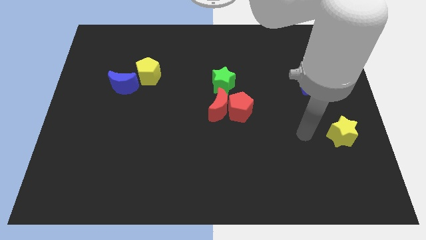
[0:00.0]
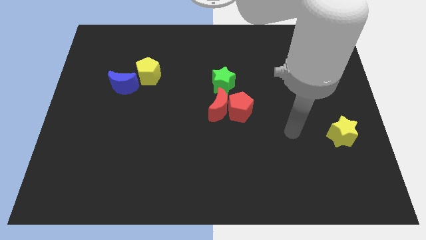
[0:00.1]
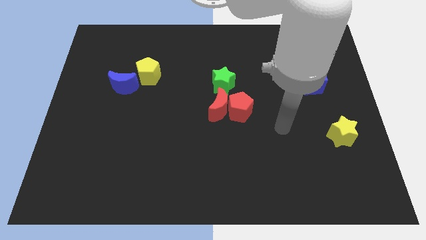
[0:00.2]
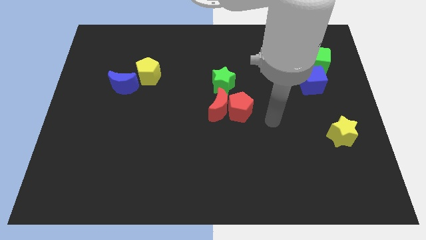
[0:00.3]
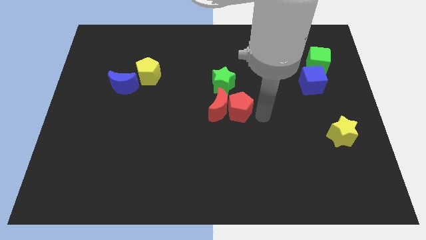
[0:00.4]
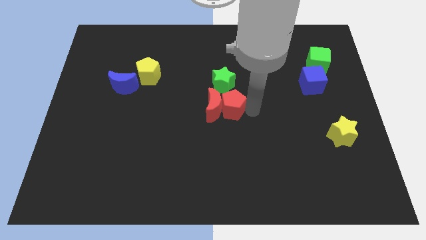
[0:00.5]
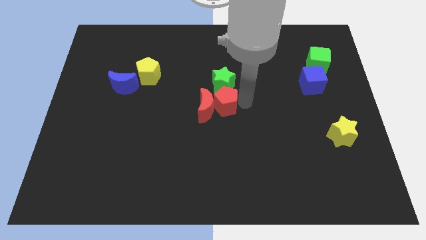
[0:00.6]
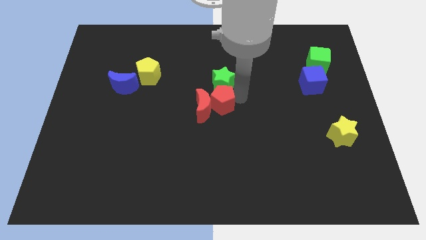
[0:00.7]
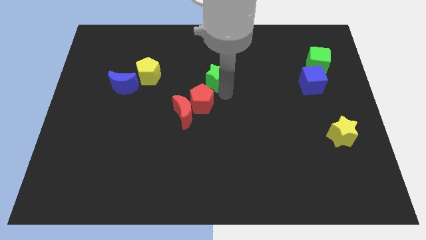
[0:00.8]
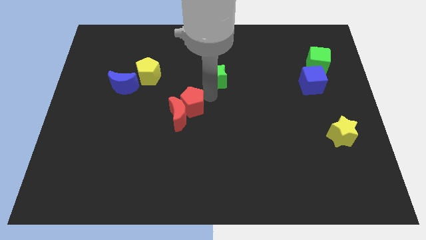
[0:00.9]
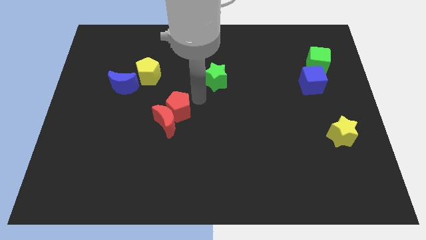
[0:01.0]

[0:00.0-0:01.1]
move the red moon away from the red pentagon and green star

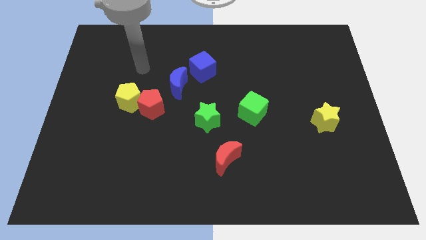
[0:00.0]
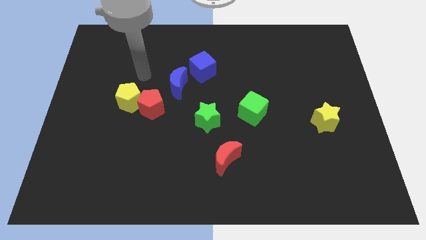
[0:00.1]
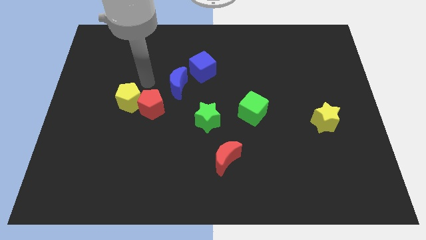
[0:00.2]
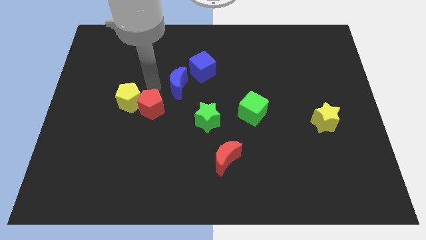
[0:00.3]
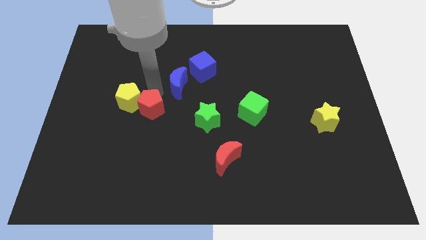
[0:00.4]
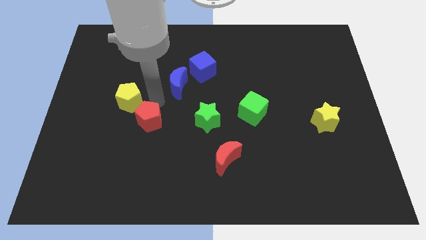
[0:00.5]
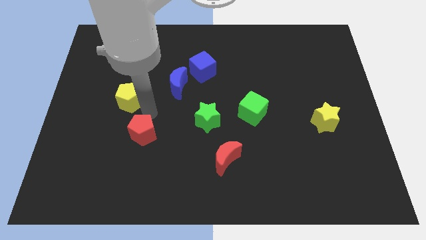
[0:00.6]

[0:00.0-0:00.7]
pull the yellow pentagon apart from the red pentagon

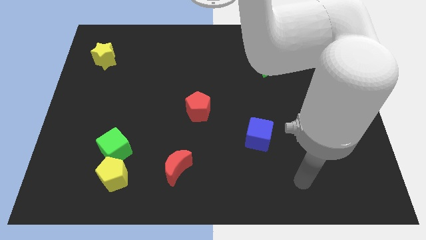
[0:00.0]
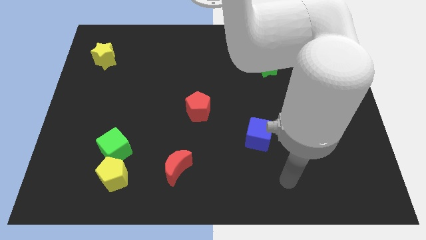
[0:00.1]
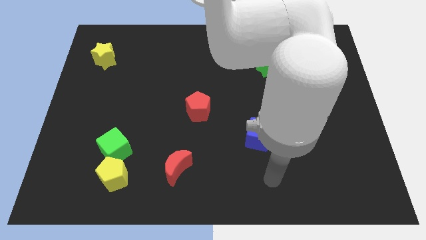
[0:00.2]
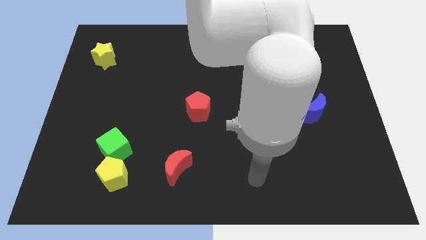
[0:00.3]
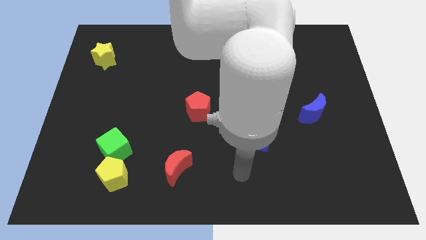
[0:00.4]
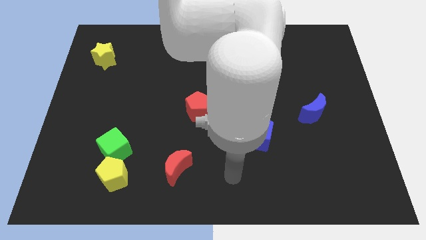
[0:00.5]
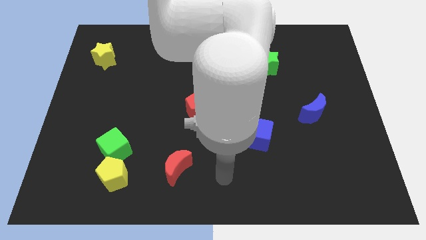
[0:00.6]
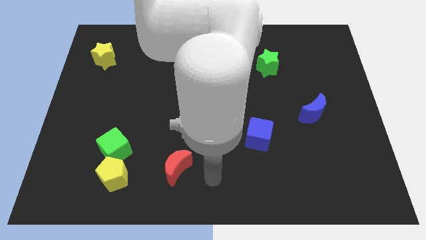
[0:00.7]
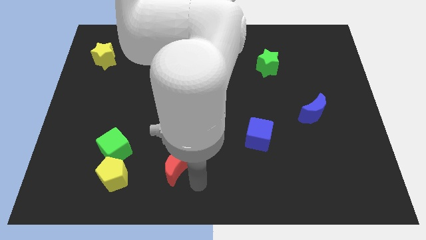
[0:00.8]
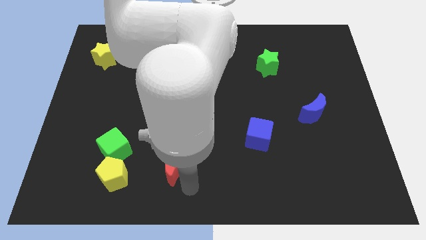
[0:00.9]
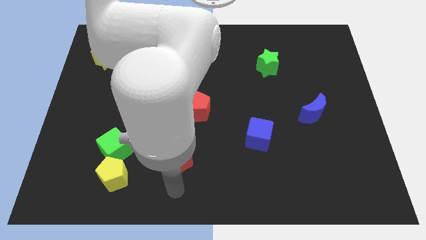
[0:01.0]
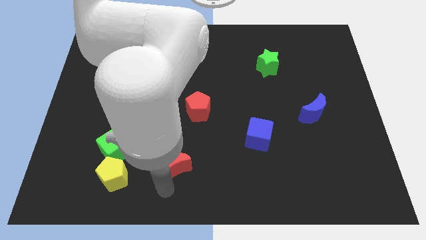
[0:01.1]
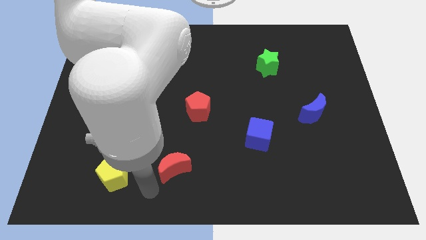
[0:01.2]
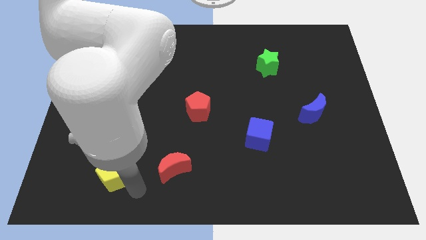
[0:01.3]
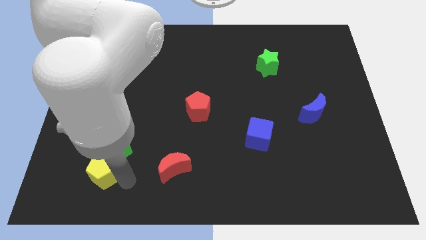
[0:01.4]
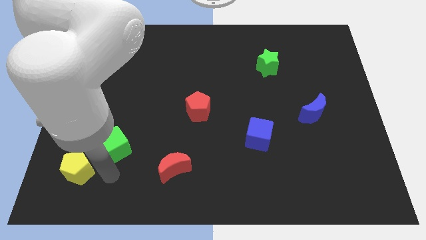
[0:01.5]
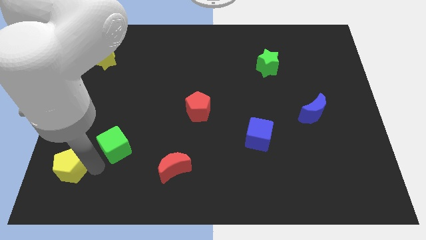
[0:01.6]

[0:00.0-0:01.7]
pull the green cube apart from the yellow pentagon

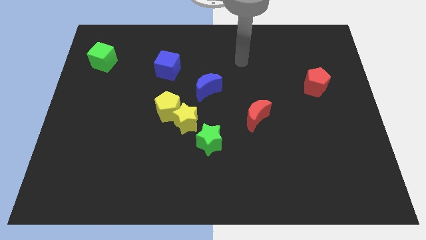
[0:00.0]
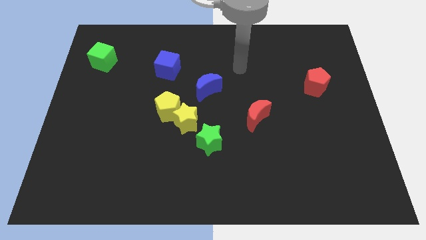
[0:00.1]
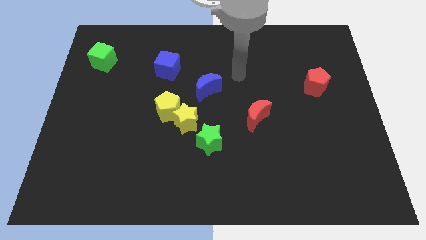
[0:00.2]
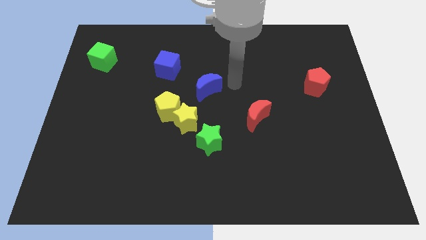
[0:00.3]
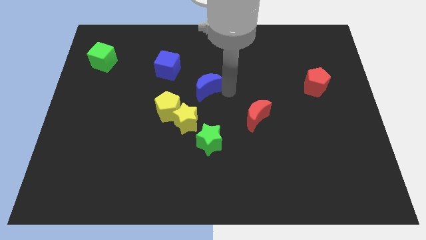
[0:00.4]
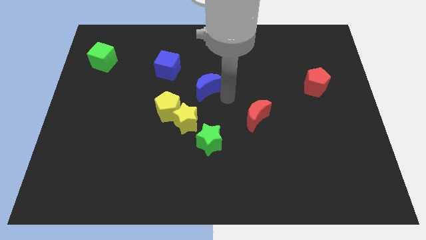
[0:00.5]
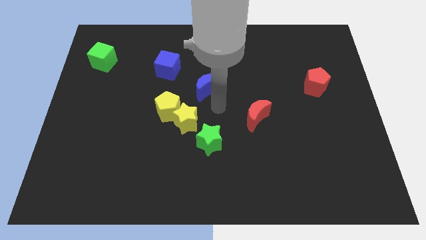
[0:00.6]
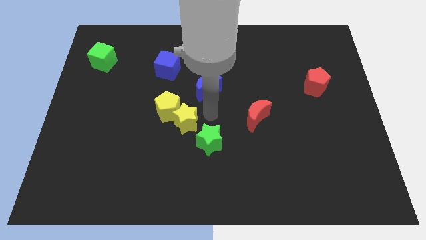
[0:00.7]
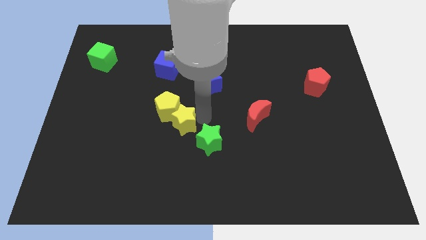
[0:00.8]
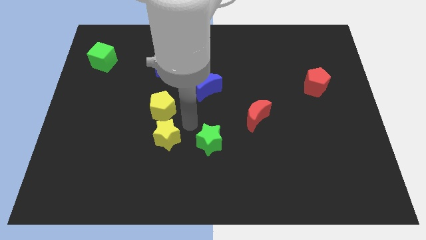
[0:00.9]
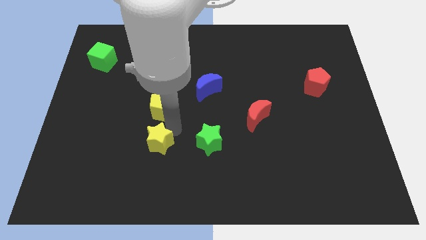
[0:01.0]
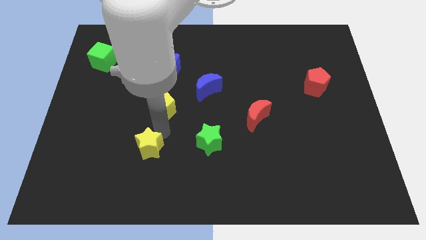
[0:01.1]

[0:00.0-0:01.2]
pull the yellow pentagon apart from the yellow star

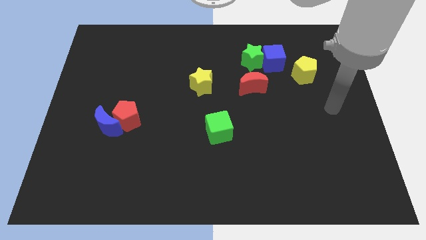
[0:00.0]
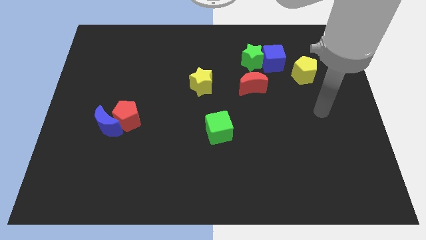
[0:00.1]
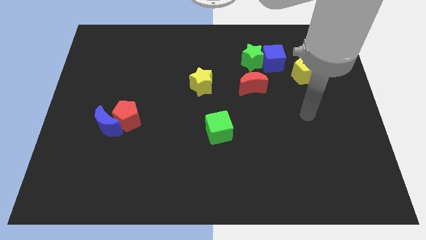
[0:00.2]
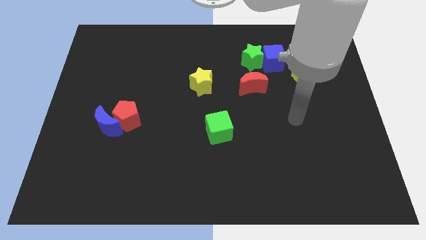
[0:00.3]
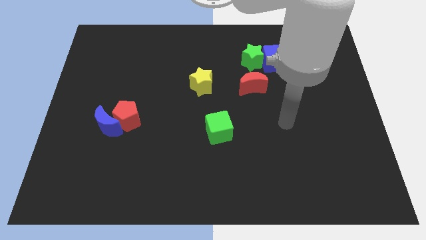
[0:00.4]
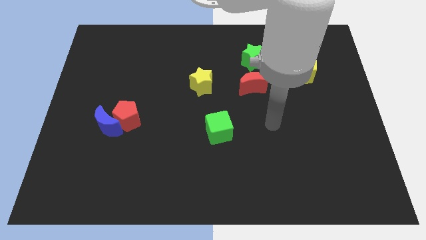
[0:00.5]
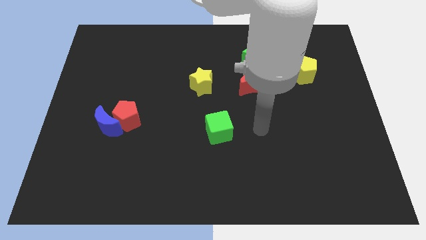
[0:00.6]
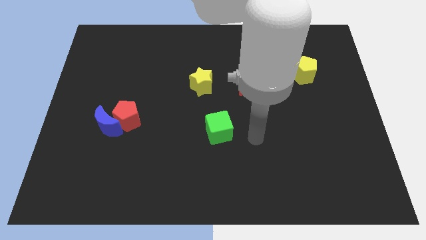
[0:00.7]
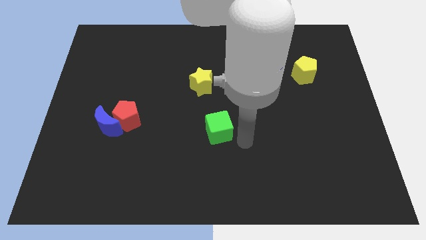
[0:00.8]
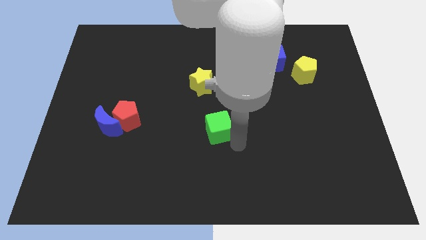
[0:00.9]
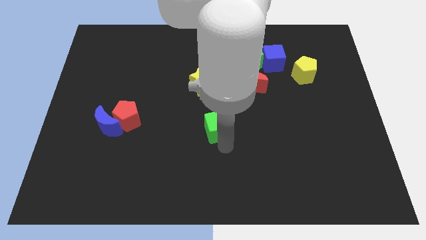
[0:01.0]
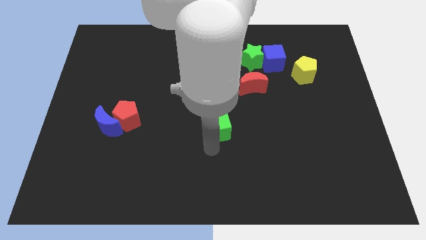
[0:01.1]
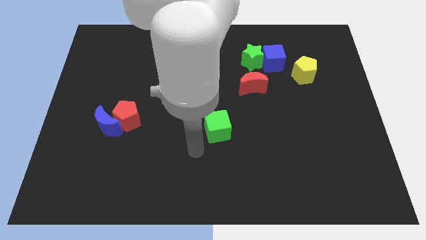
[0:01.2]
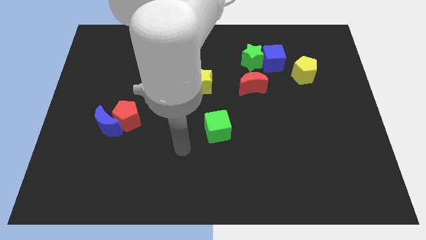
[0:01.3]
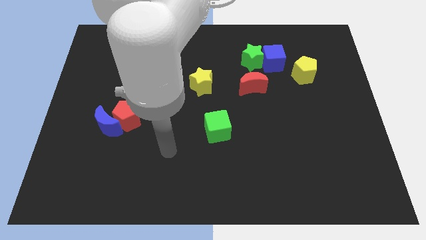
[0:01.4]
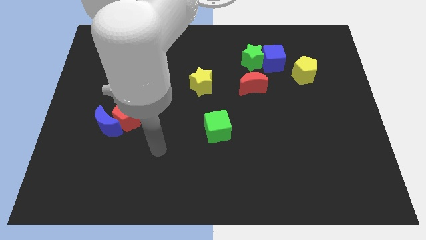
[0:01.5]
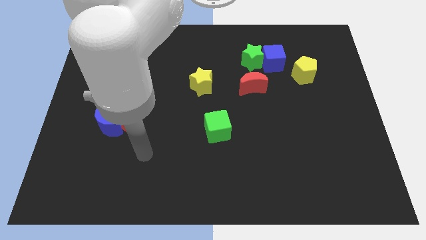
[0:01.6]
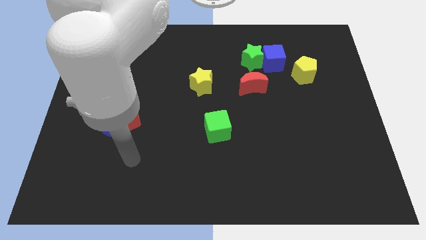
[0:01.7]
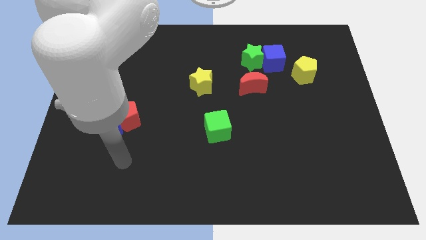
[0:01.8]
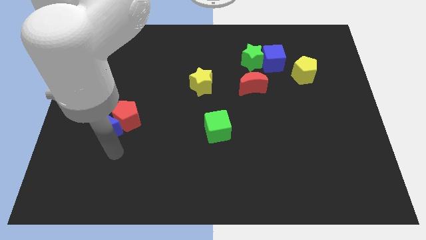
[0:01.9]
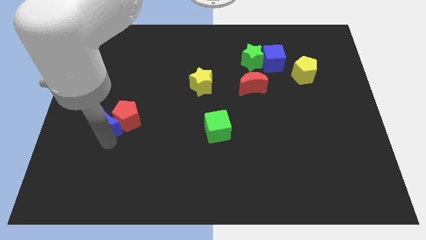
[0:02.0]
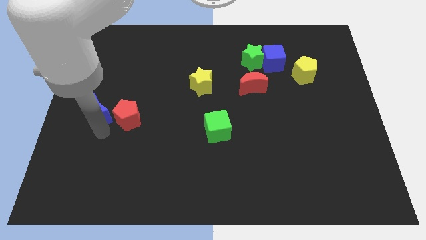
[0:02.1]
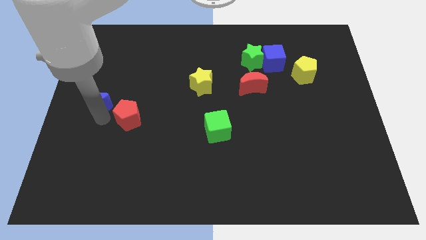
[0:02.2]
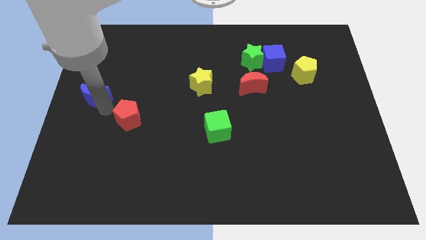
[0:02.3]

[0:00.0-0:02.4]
move the red pentagon away from the blue moon

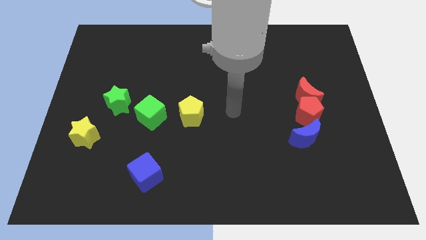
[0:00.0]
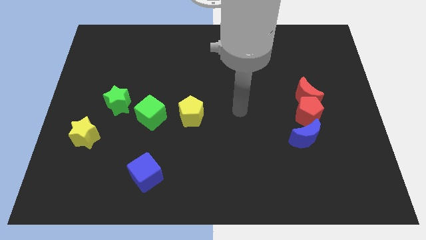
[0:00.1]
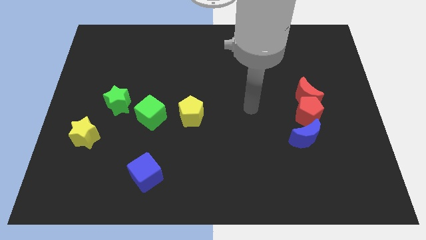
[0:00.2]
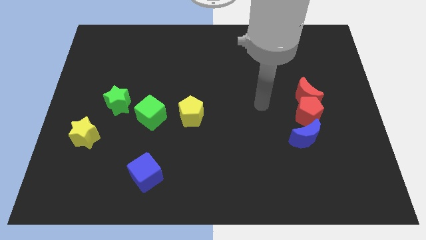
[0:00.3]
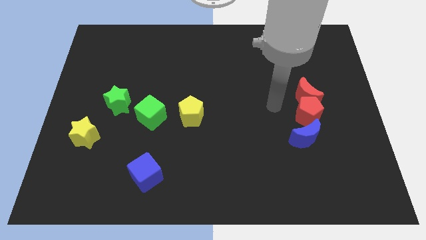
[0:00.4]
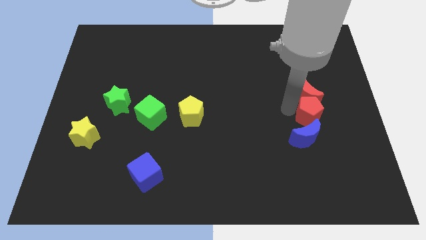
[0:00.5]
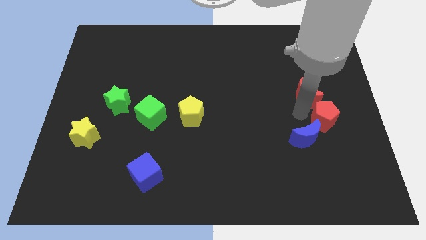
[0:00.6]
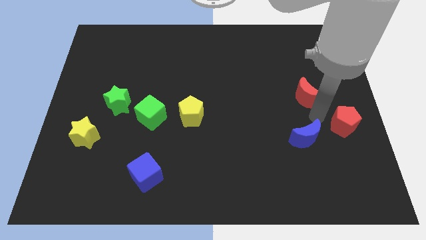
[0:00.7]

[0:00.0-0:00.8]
pull the red moon apart from the red pentagon

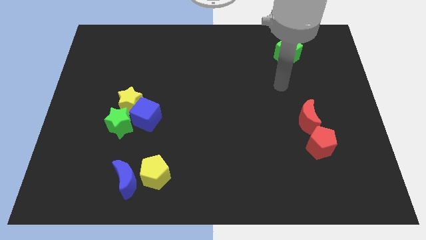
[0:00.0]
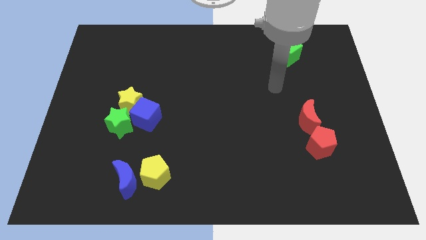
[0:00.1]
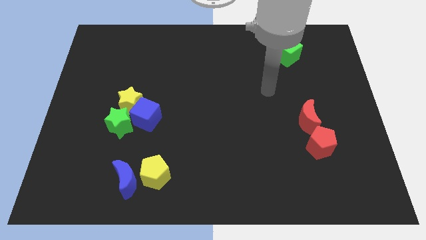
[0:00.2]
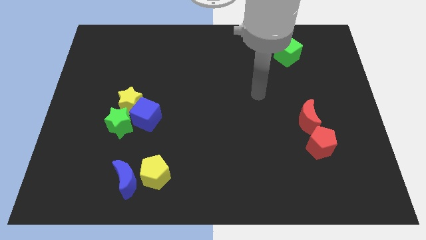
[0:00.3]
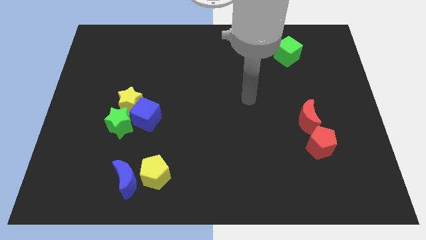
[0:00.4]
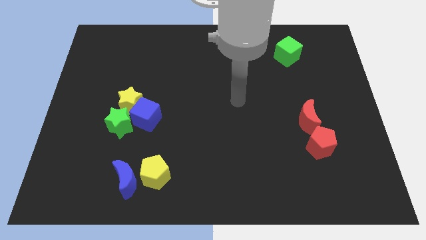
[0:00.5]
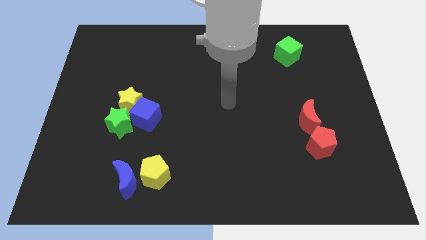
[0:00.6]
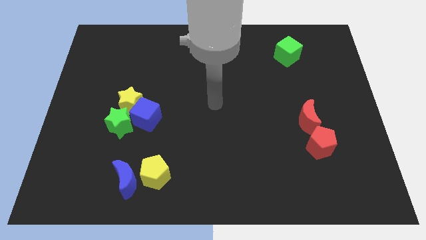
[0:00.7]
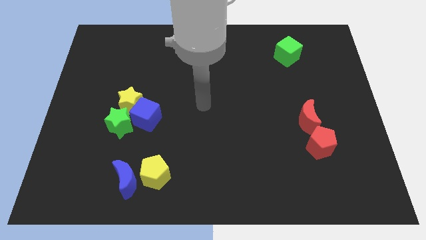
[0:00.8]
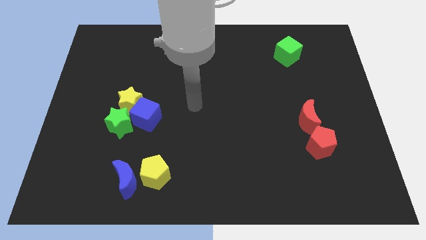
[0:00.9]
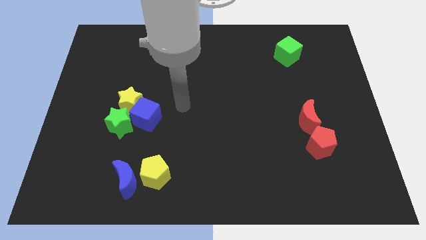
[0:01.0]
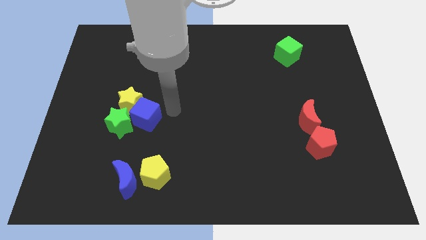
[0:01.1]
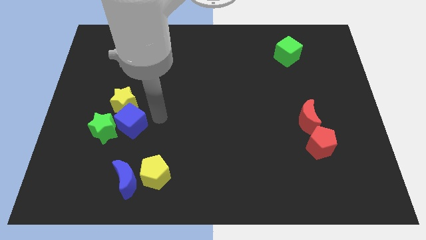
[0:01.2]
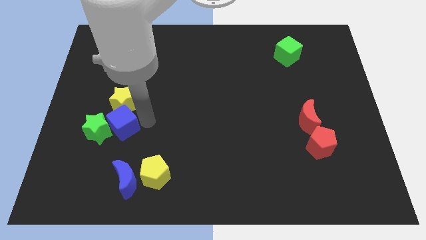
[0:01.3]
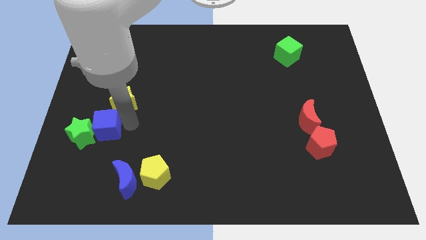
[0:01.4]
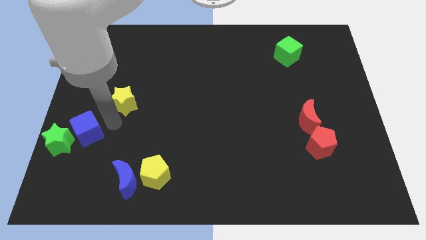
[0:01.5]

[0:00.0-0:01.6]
separate the yellow star from the blue cube and green star
